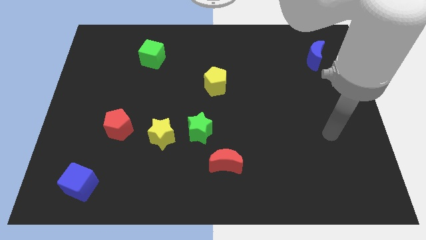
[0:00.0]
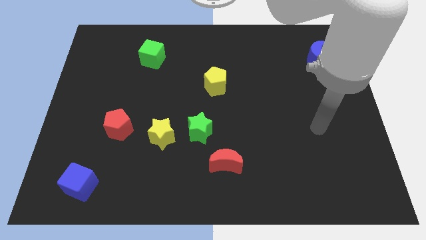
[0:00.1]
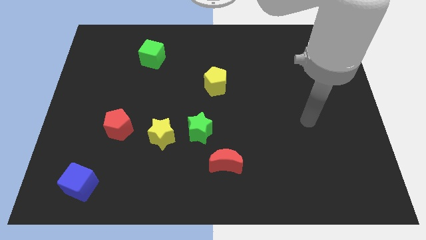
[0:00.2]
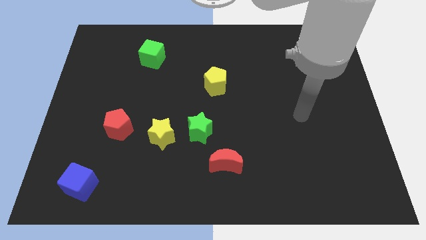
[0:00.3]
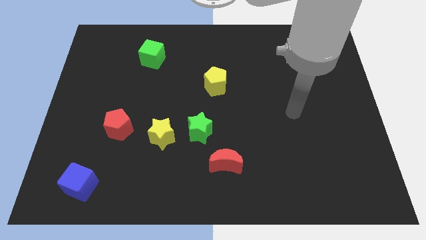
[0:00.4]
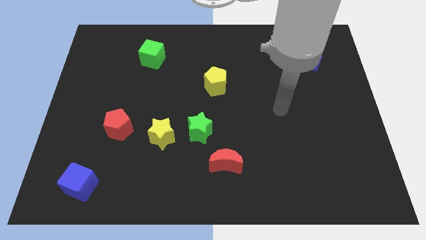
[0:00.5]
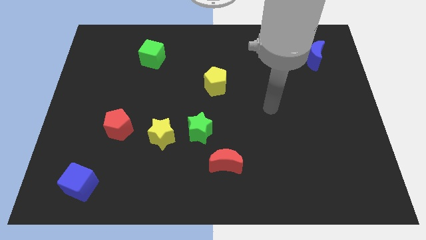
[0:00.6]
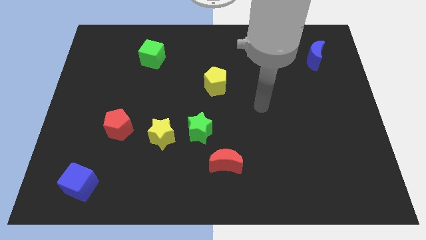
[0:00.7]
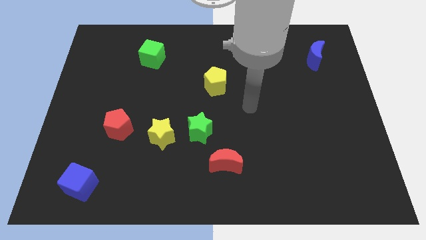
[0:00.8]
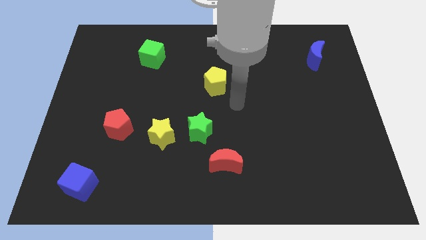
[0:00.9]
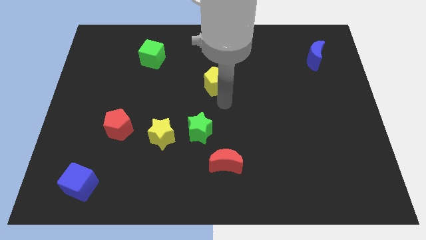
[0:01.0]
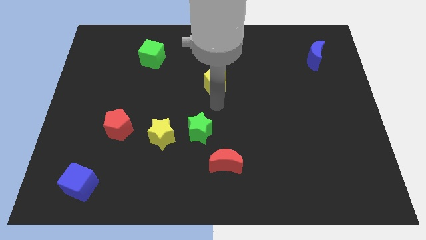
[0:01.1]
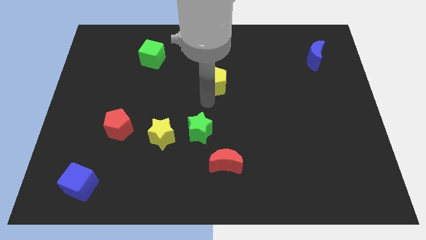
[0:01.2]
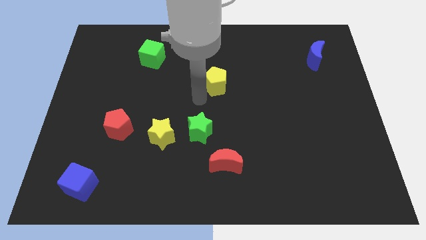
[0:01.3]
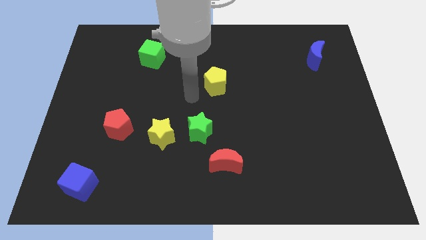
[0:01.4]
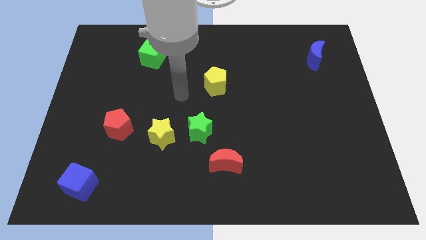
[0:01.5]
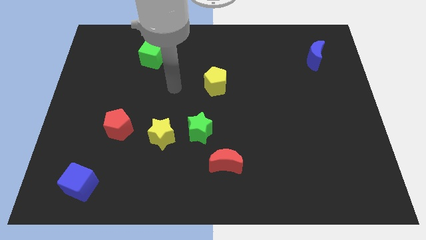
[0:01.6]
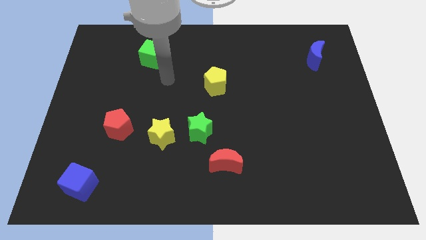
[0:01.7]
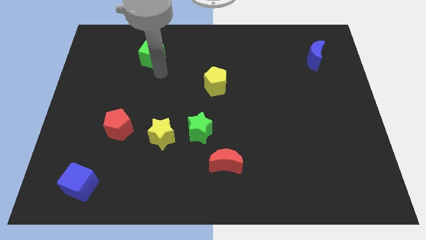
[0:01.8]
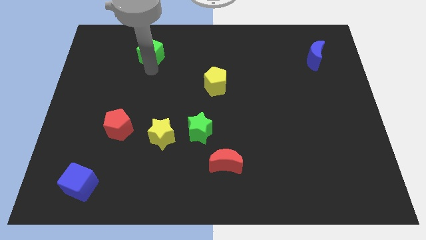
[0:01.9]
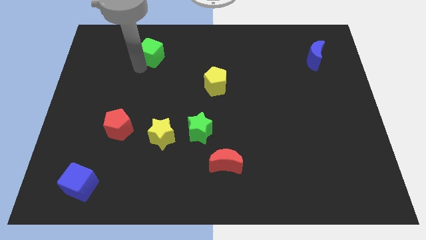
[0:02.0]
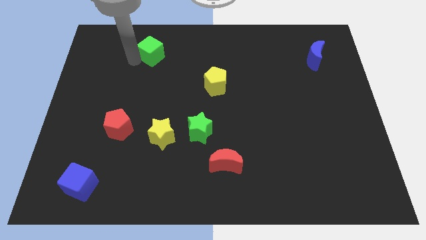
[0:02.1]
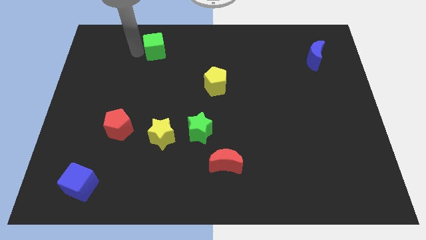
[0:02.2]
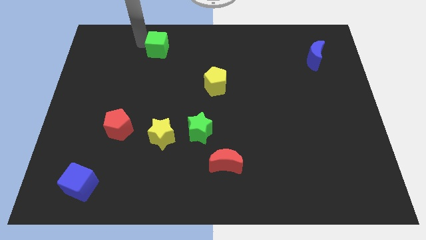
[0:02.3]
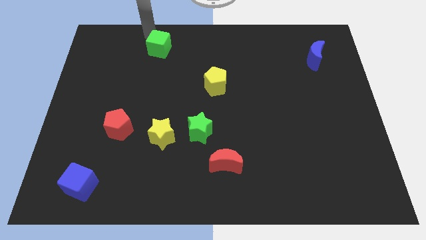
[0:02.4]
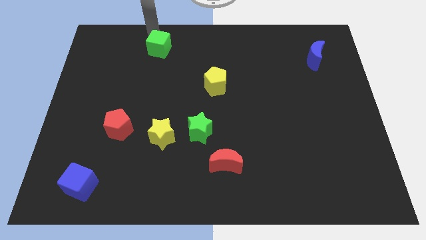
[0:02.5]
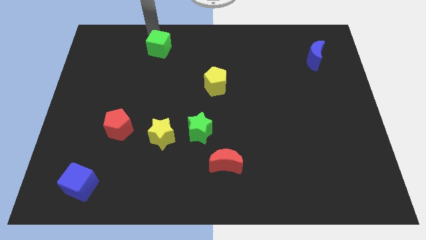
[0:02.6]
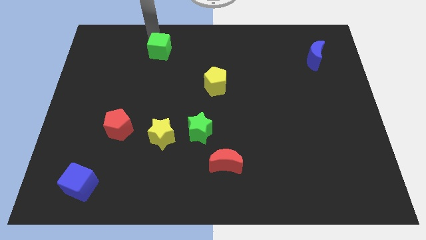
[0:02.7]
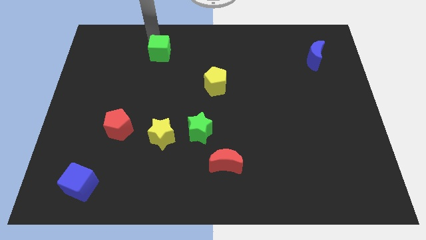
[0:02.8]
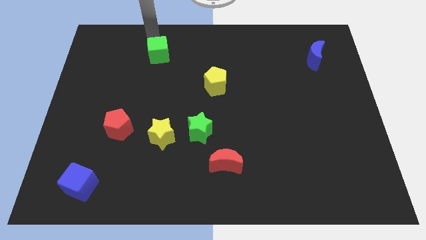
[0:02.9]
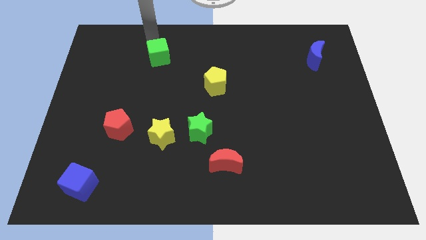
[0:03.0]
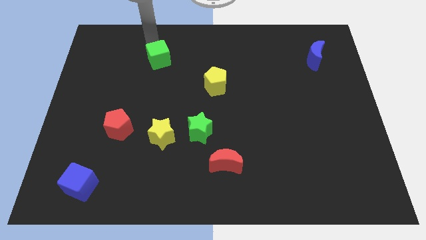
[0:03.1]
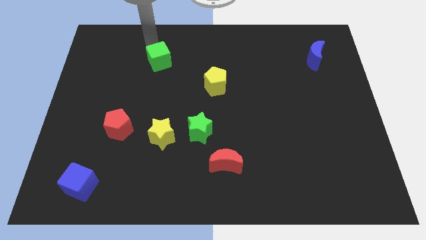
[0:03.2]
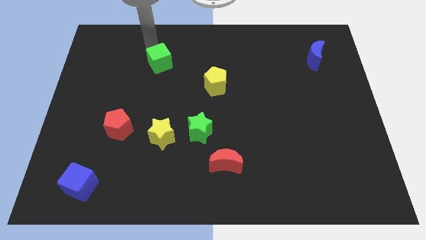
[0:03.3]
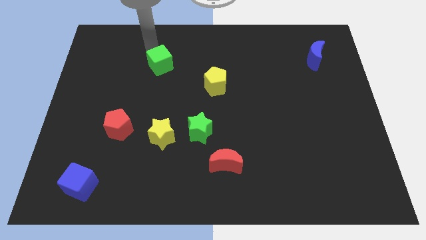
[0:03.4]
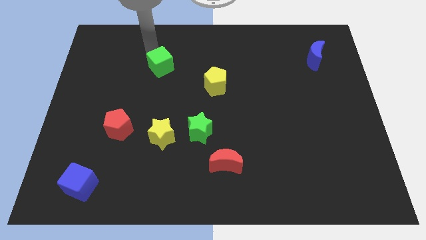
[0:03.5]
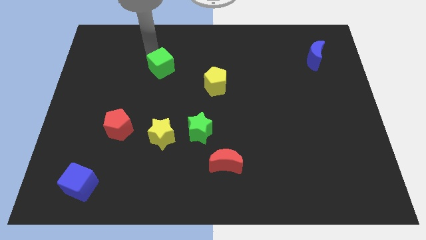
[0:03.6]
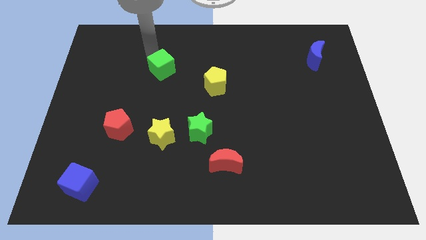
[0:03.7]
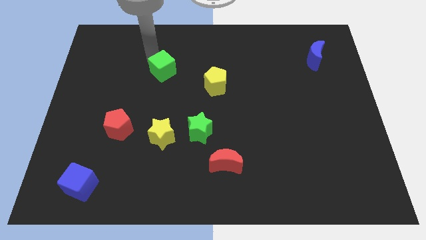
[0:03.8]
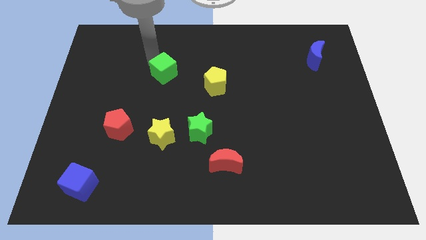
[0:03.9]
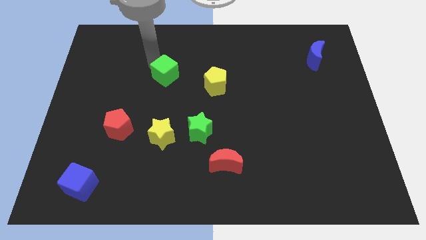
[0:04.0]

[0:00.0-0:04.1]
slide the green cube downwards and right a little bit

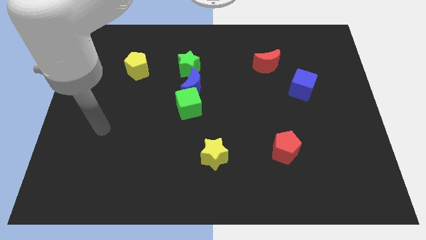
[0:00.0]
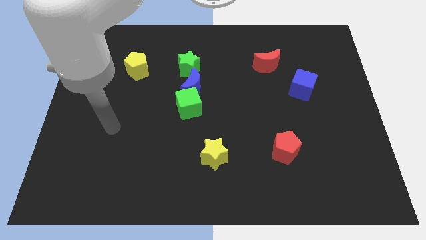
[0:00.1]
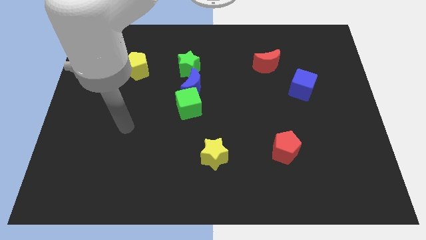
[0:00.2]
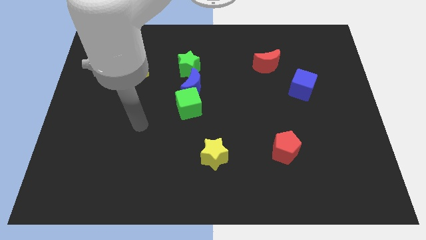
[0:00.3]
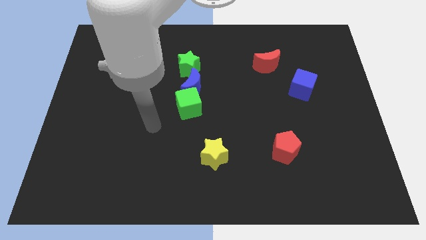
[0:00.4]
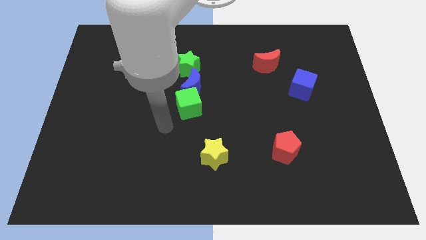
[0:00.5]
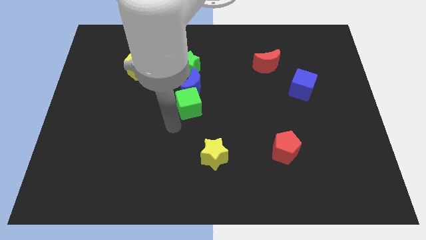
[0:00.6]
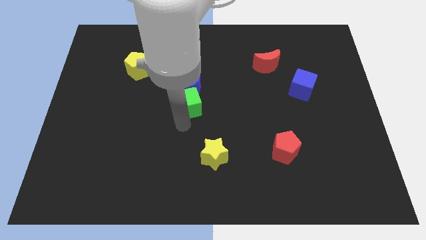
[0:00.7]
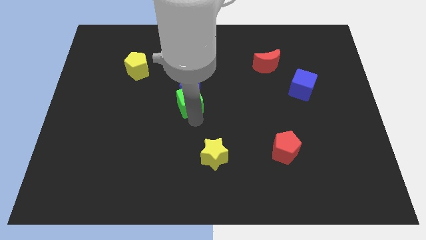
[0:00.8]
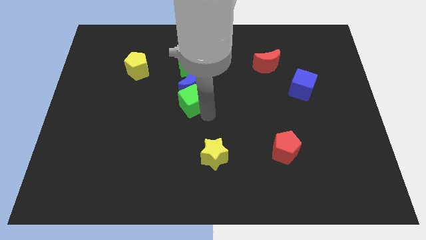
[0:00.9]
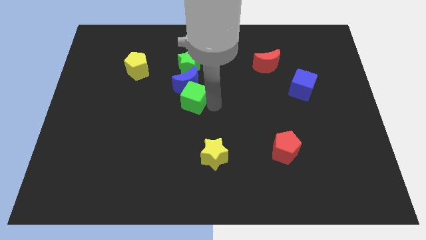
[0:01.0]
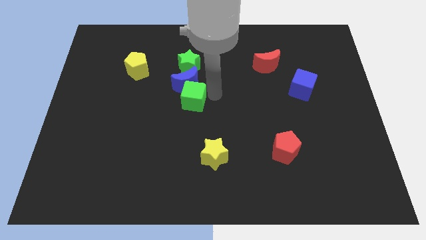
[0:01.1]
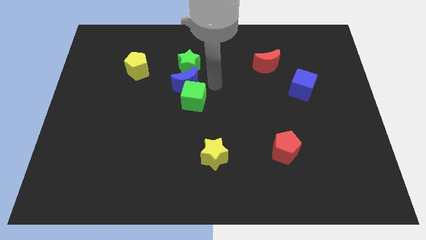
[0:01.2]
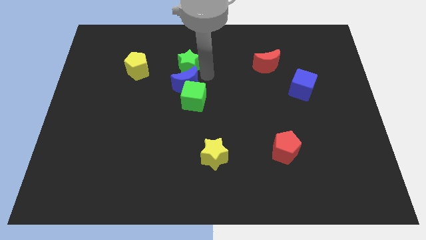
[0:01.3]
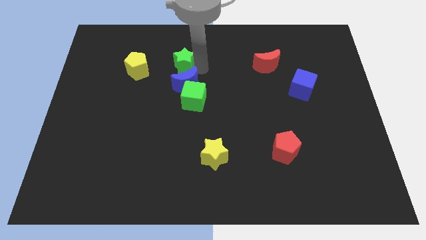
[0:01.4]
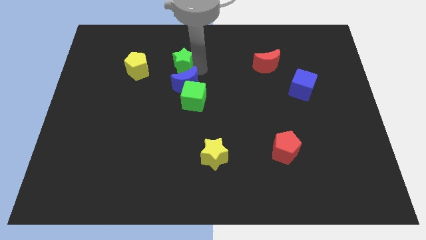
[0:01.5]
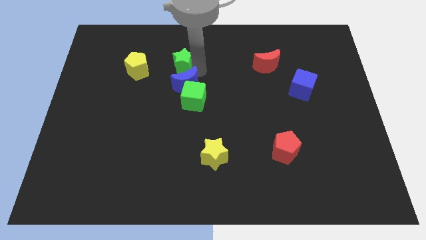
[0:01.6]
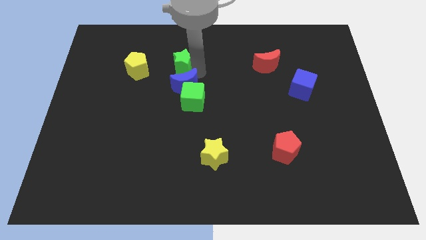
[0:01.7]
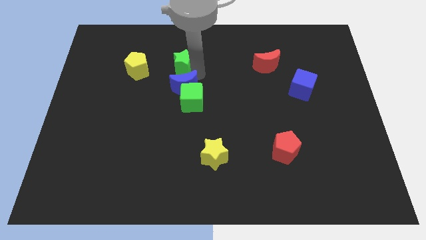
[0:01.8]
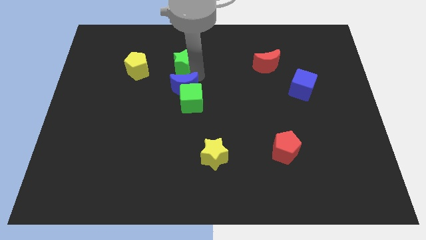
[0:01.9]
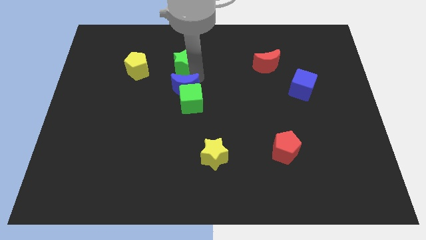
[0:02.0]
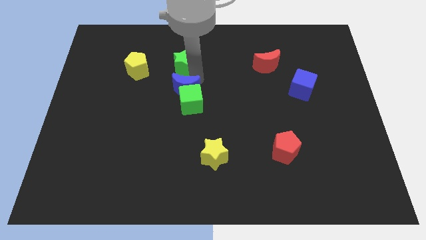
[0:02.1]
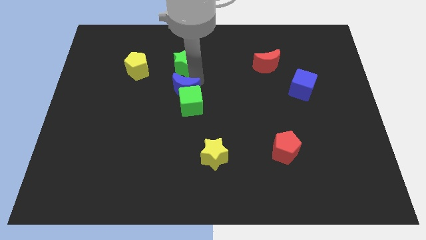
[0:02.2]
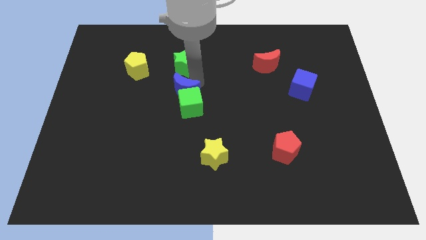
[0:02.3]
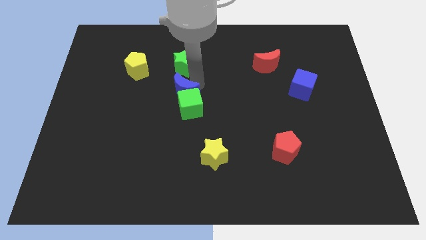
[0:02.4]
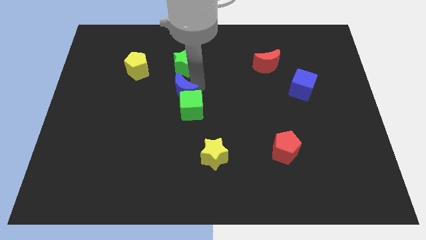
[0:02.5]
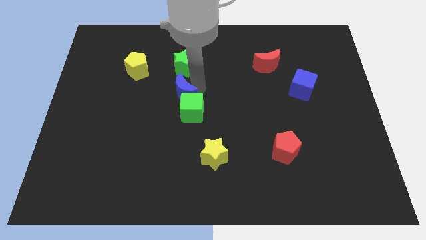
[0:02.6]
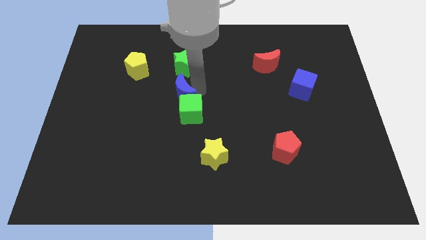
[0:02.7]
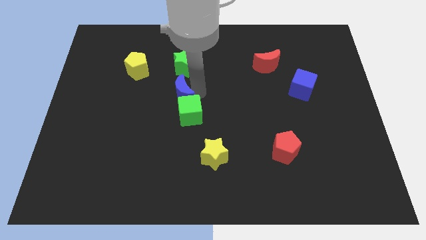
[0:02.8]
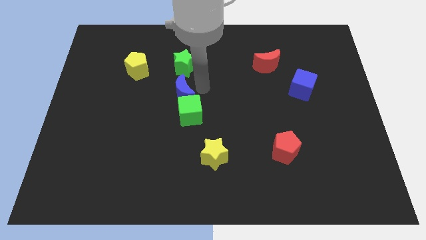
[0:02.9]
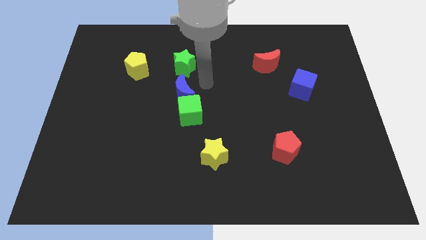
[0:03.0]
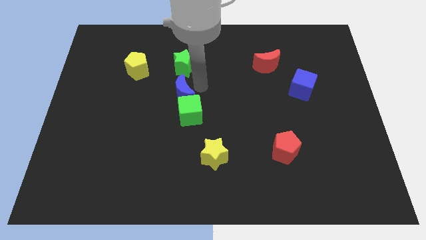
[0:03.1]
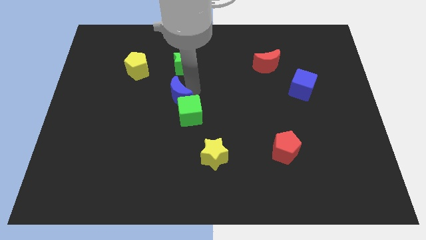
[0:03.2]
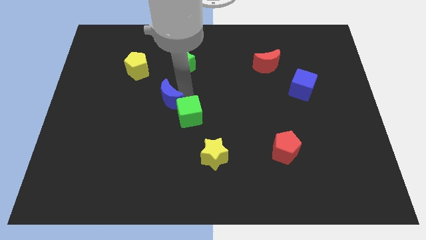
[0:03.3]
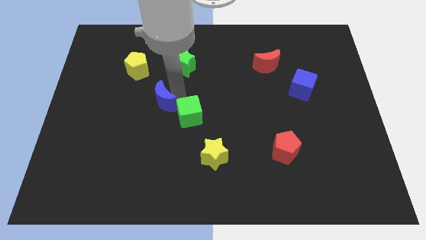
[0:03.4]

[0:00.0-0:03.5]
push the blue moon downwards and left diagonally a little bit

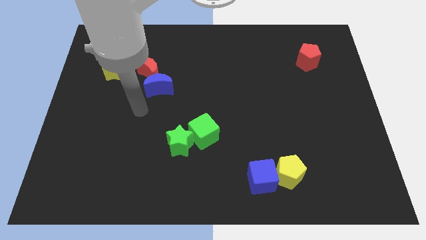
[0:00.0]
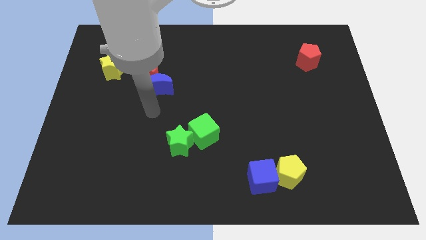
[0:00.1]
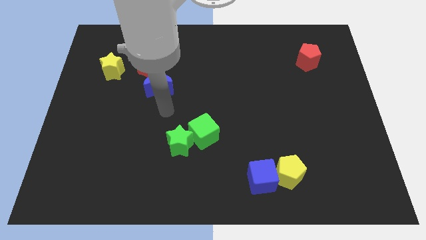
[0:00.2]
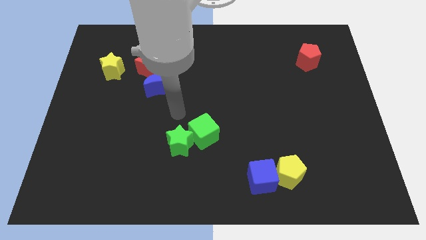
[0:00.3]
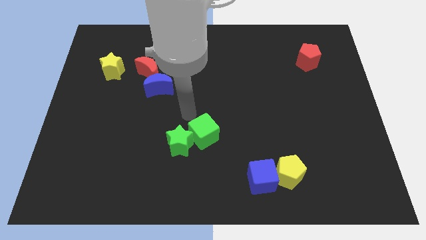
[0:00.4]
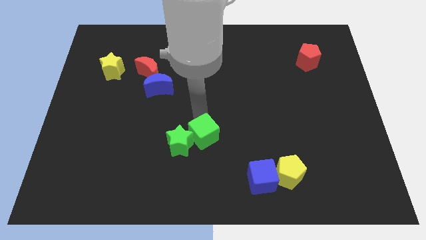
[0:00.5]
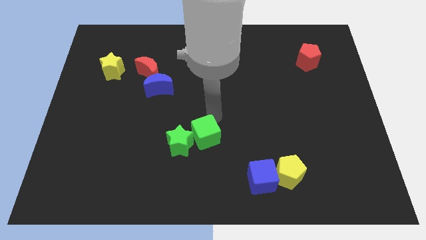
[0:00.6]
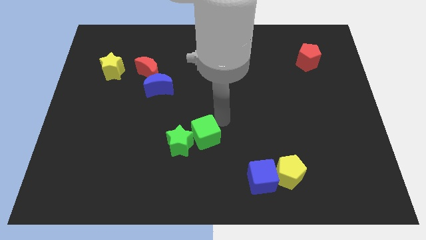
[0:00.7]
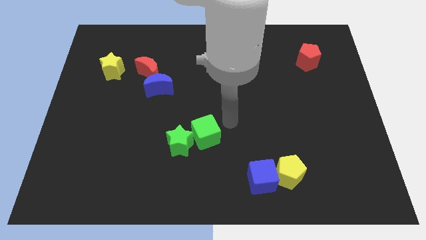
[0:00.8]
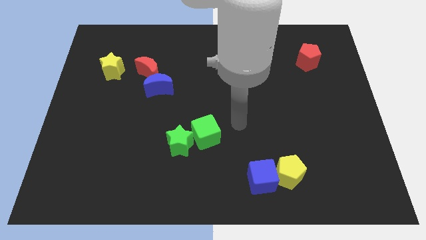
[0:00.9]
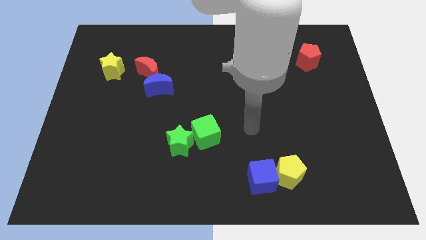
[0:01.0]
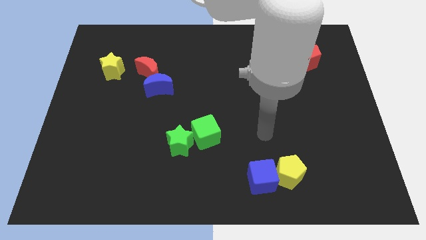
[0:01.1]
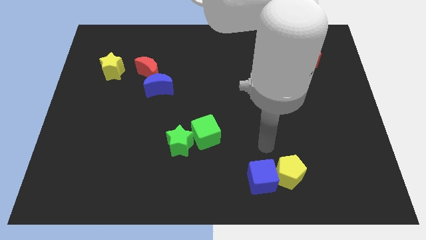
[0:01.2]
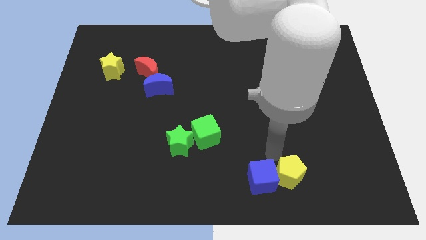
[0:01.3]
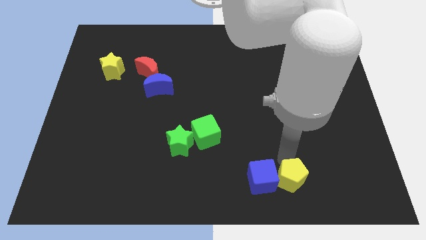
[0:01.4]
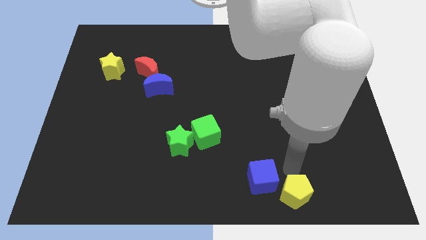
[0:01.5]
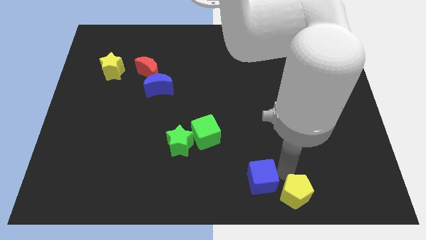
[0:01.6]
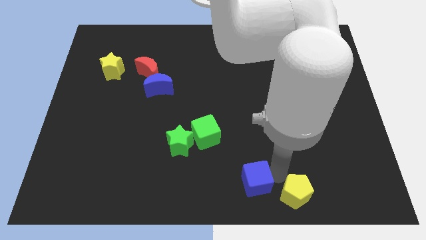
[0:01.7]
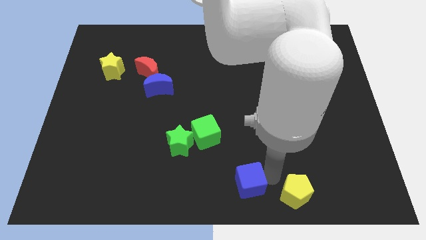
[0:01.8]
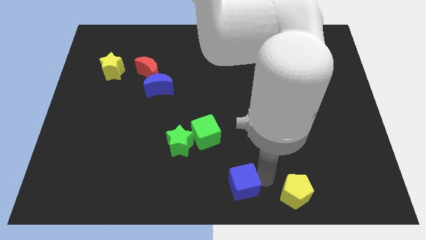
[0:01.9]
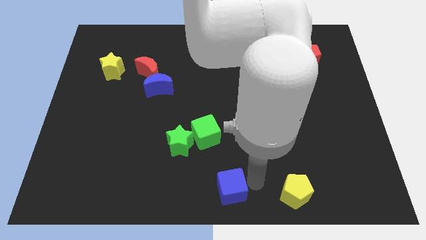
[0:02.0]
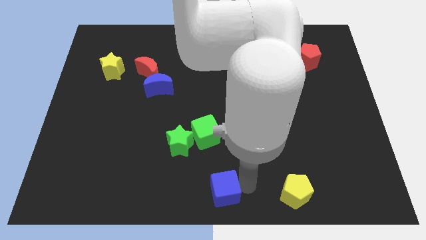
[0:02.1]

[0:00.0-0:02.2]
slide the blue cube to the left a little bit
